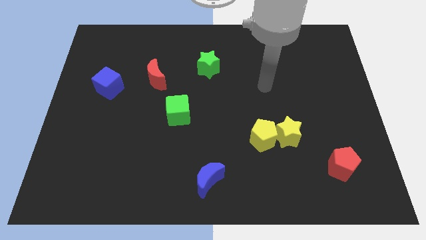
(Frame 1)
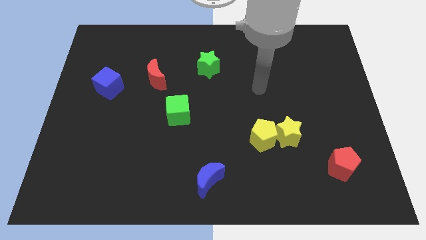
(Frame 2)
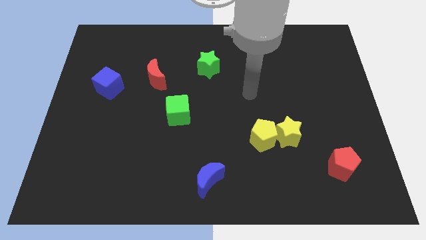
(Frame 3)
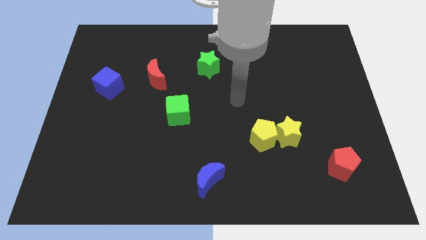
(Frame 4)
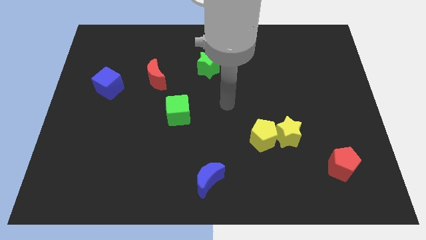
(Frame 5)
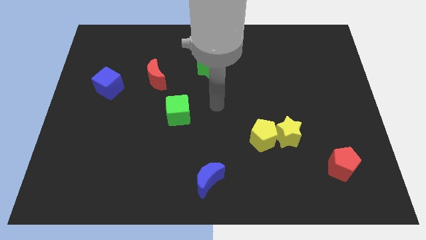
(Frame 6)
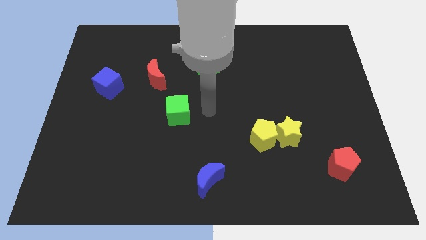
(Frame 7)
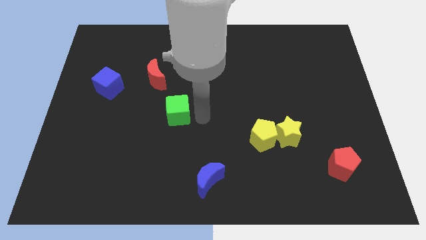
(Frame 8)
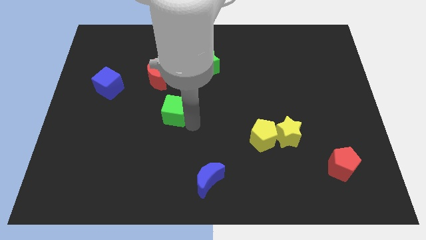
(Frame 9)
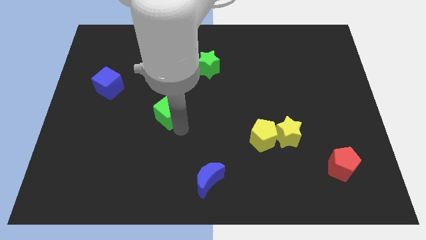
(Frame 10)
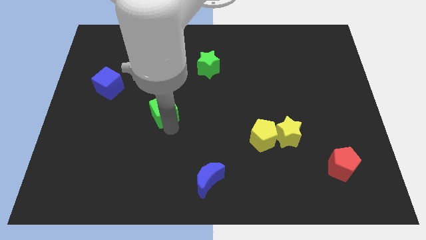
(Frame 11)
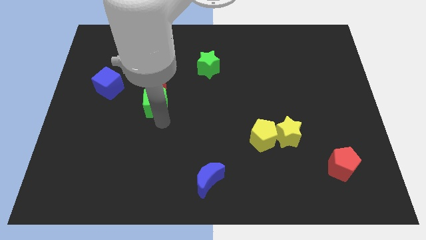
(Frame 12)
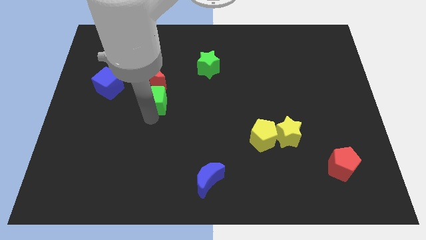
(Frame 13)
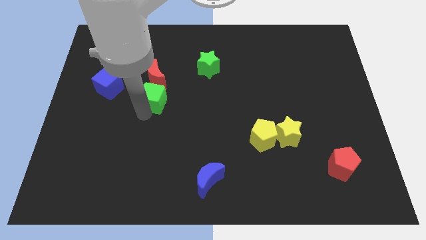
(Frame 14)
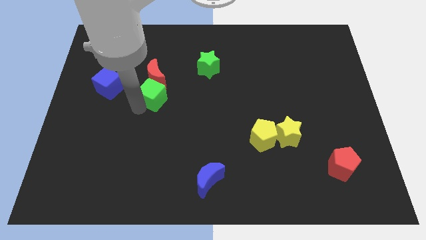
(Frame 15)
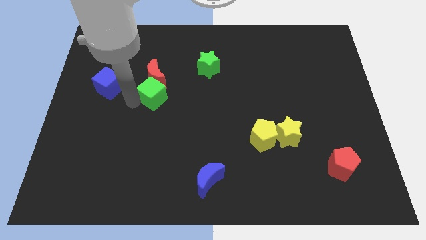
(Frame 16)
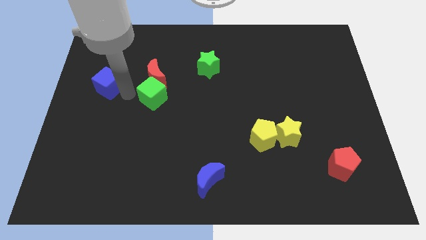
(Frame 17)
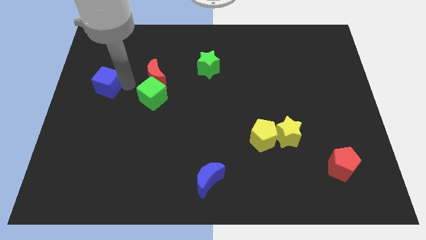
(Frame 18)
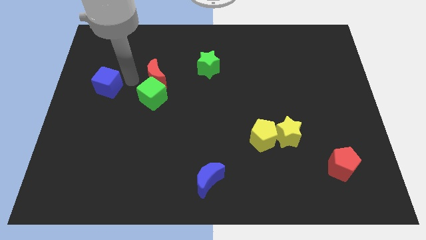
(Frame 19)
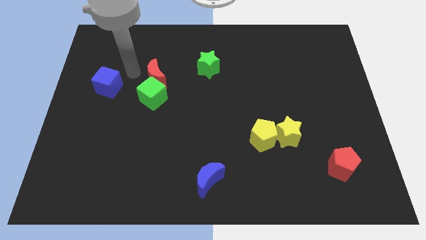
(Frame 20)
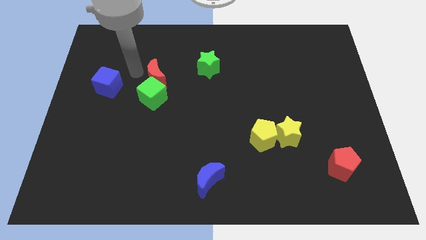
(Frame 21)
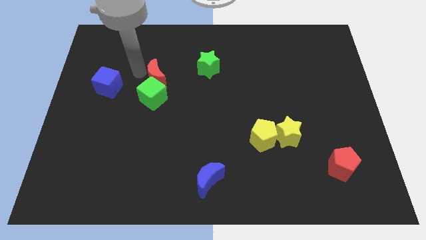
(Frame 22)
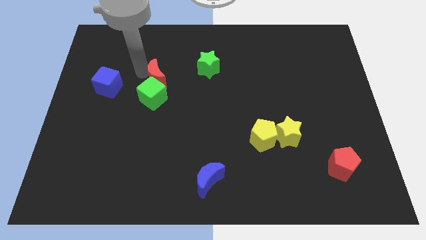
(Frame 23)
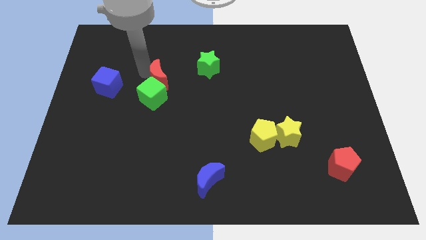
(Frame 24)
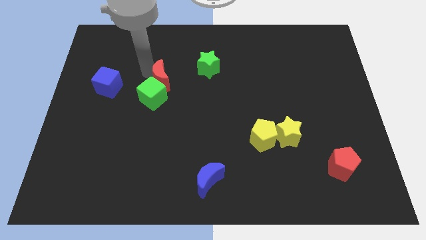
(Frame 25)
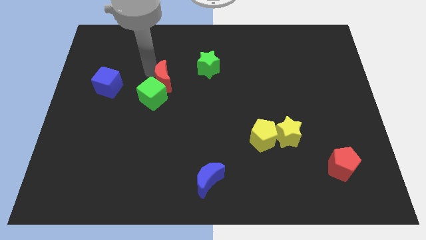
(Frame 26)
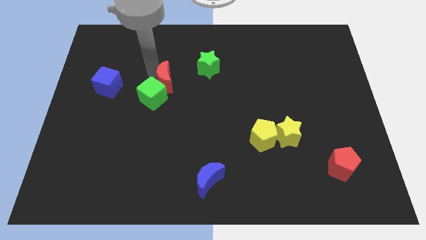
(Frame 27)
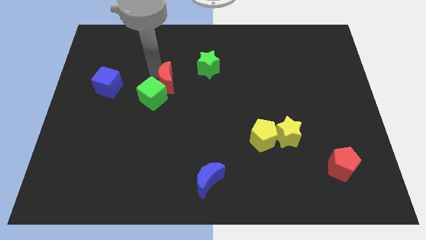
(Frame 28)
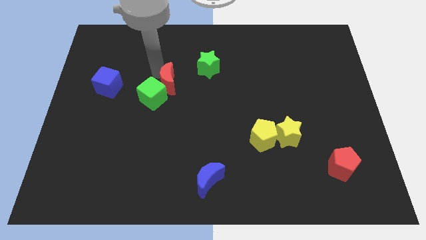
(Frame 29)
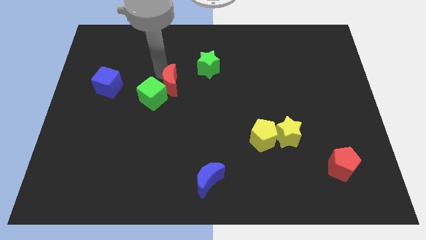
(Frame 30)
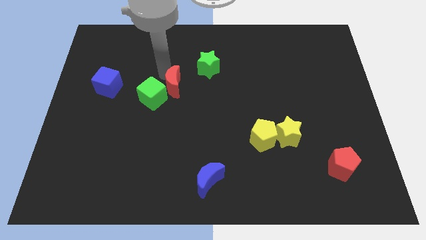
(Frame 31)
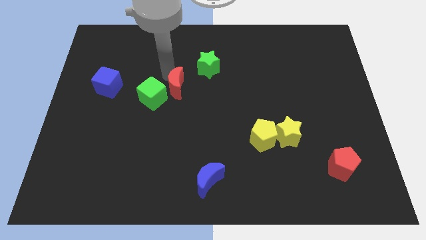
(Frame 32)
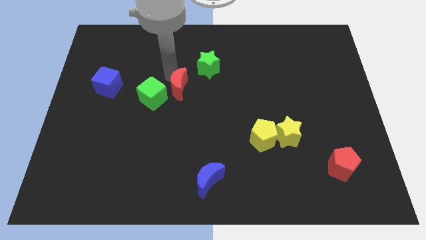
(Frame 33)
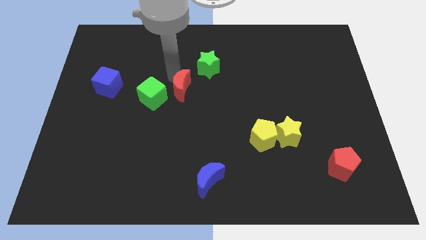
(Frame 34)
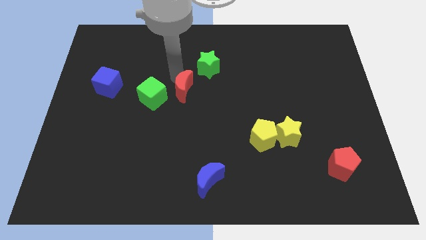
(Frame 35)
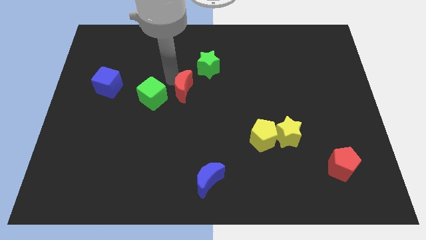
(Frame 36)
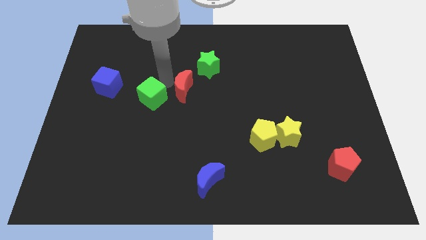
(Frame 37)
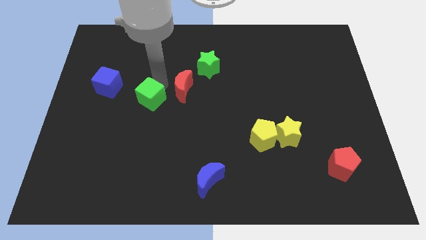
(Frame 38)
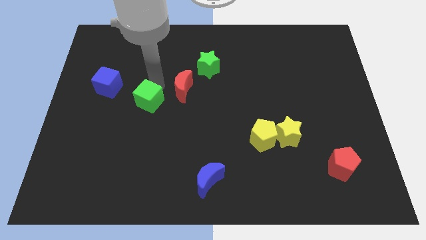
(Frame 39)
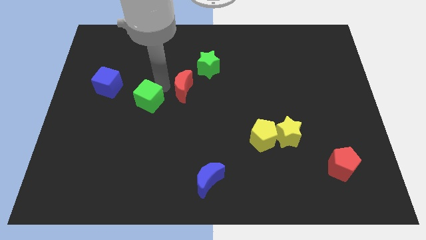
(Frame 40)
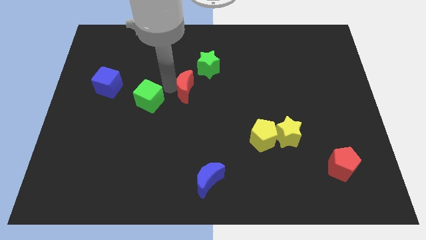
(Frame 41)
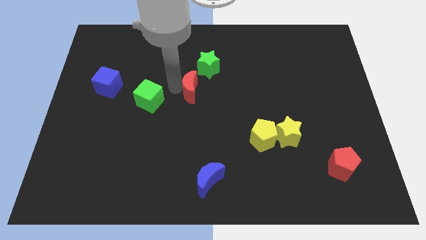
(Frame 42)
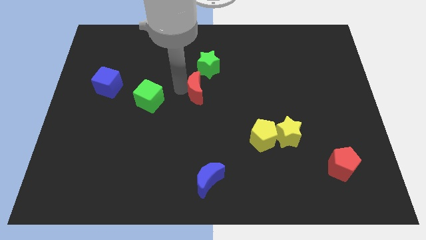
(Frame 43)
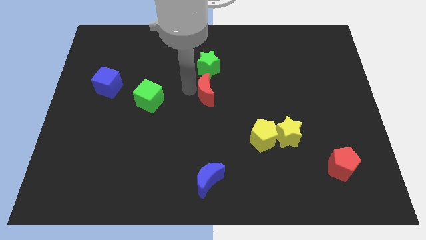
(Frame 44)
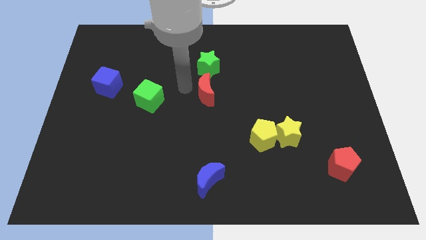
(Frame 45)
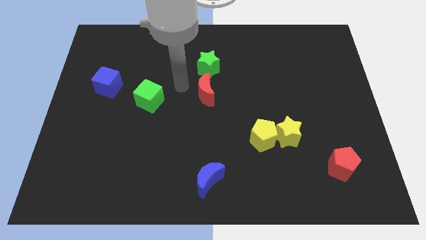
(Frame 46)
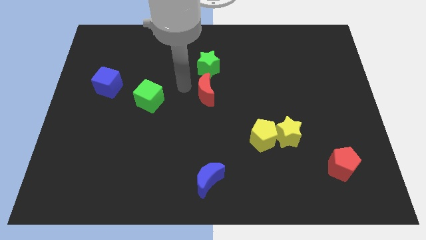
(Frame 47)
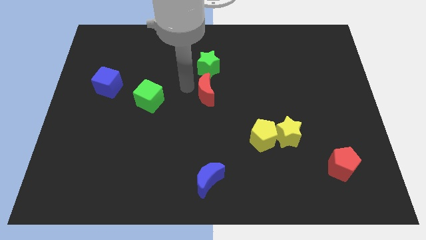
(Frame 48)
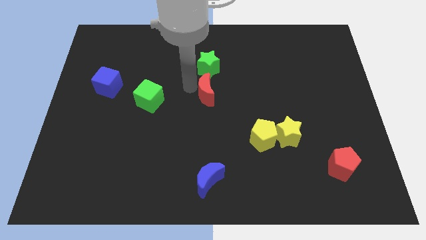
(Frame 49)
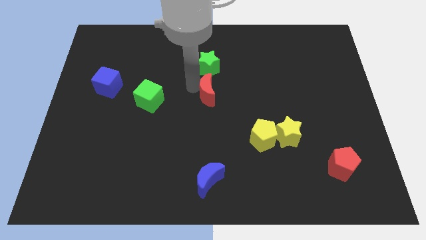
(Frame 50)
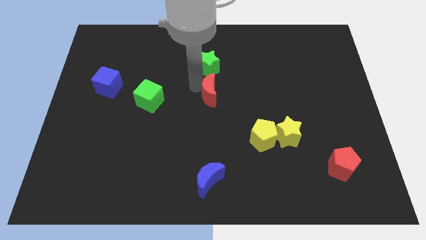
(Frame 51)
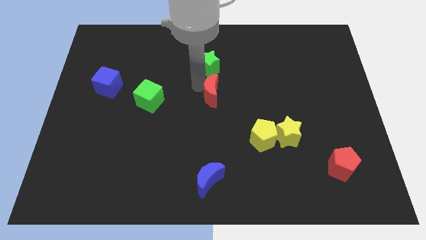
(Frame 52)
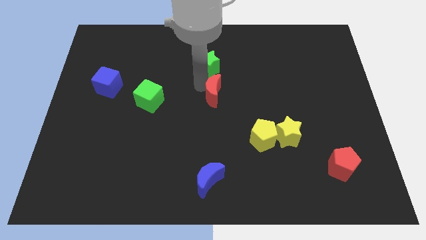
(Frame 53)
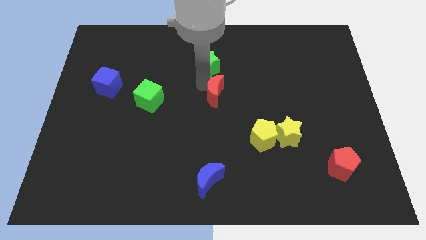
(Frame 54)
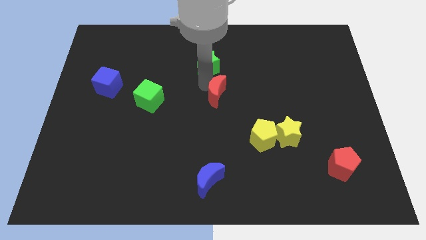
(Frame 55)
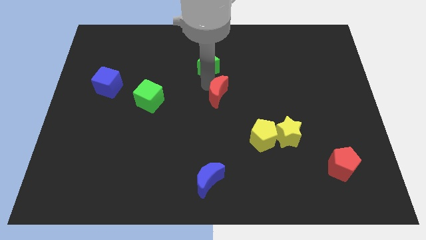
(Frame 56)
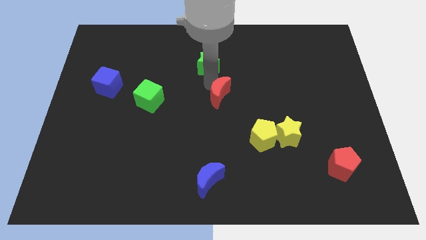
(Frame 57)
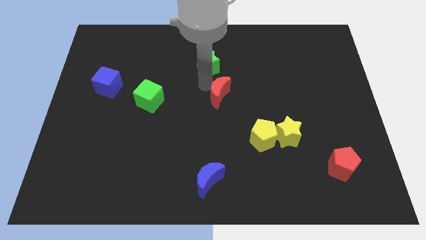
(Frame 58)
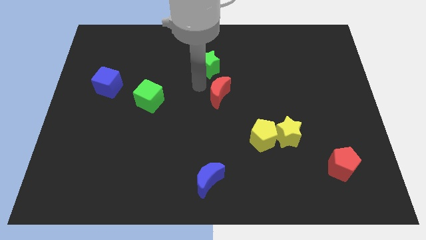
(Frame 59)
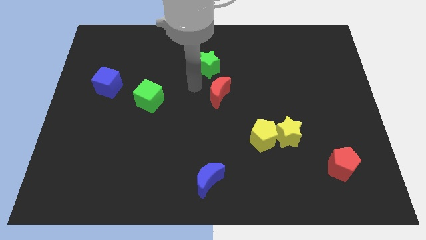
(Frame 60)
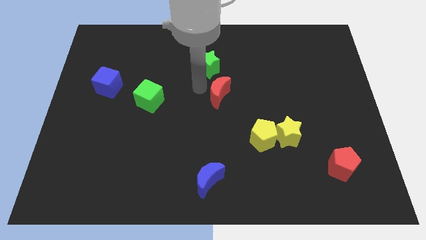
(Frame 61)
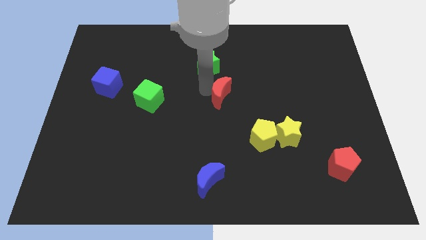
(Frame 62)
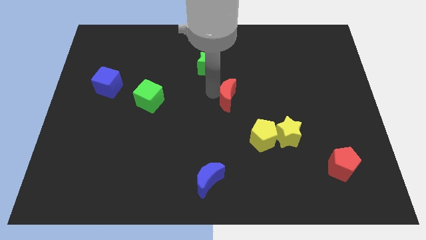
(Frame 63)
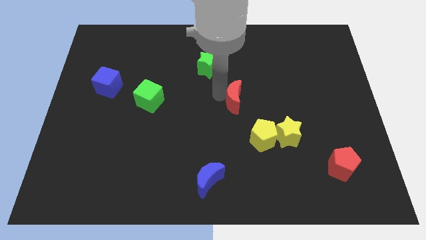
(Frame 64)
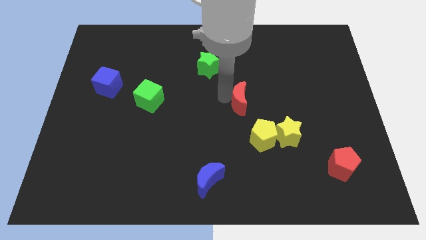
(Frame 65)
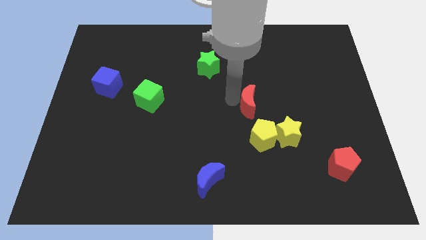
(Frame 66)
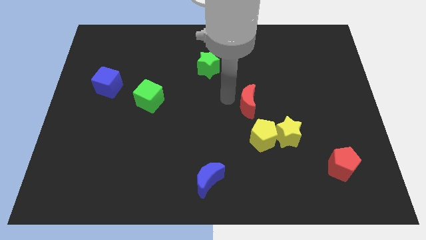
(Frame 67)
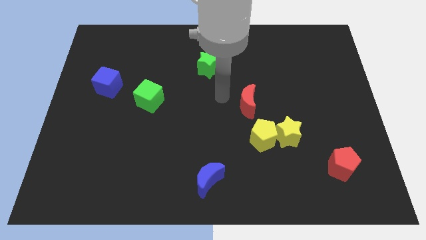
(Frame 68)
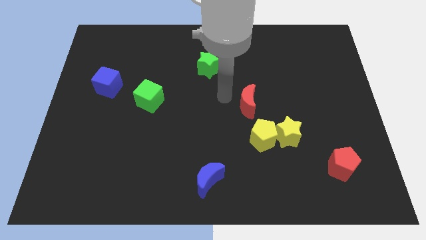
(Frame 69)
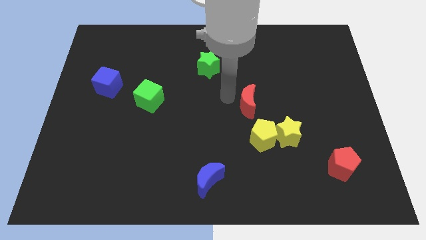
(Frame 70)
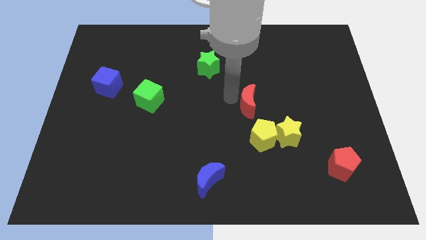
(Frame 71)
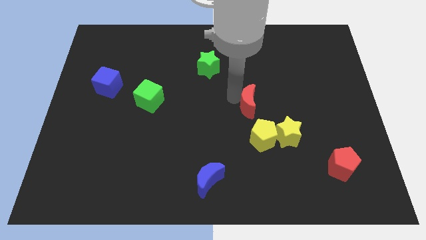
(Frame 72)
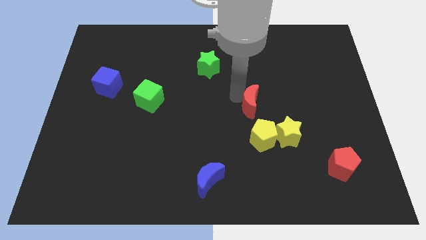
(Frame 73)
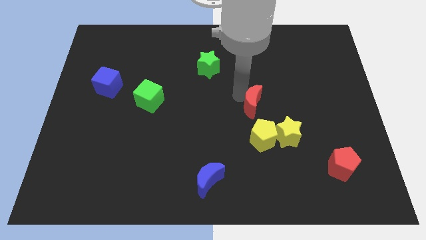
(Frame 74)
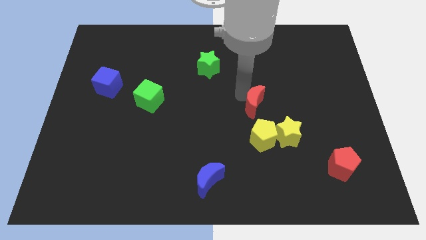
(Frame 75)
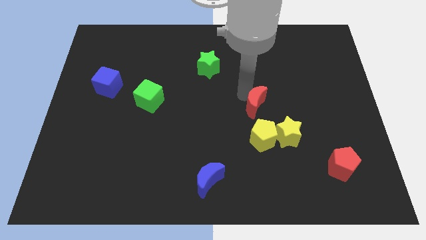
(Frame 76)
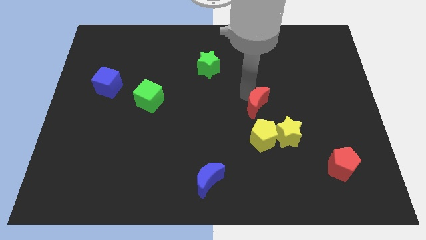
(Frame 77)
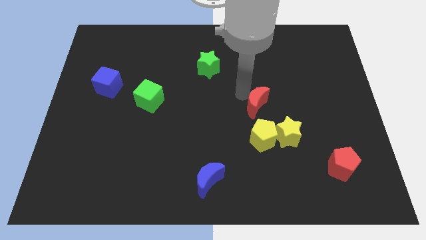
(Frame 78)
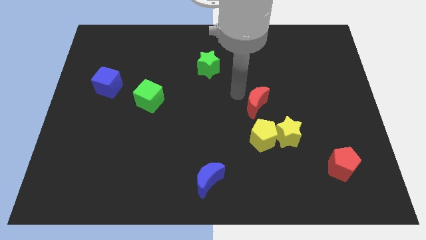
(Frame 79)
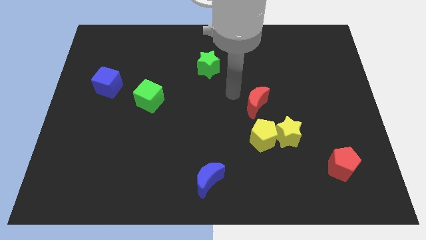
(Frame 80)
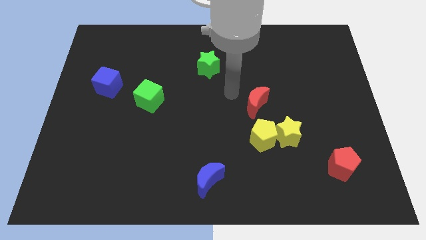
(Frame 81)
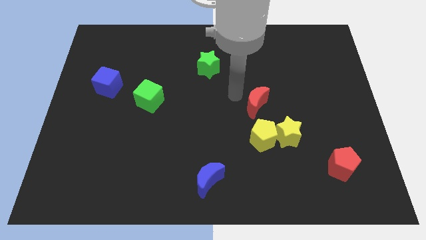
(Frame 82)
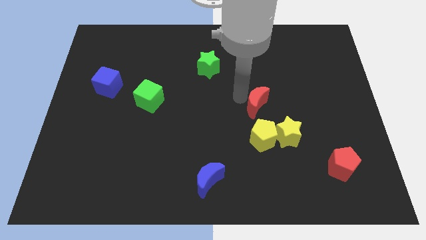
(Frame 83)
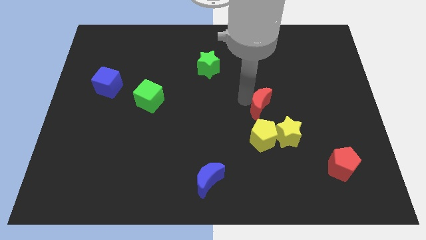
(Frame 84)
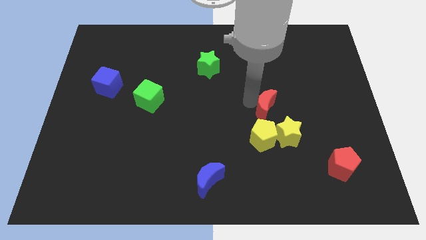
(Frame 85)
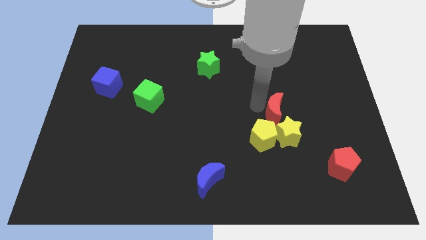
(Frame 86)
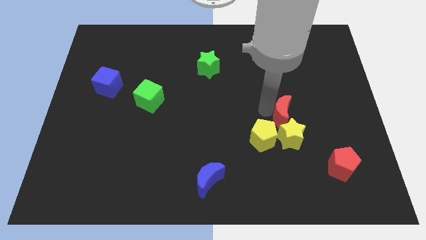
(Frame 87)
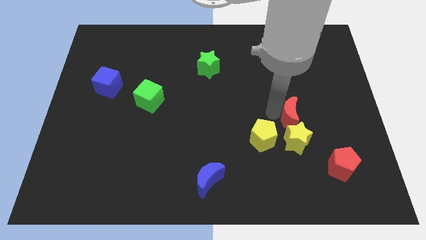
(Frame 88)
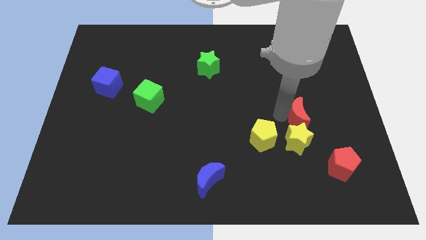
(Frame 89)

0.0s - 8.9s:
move the red moon diagonally up and to the right of the yellow star
